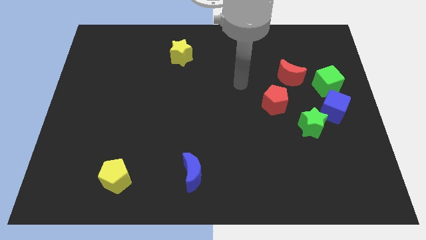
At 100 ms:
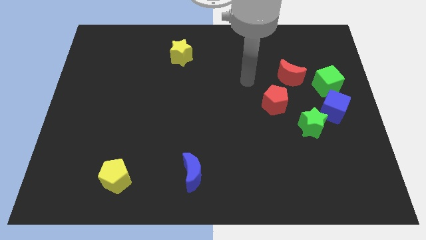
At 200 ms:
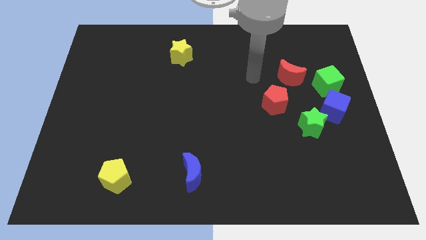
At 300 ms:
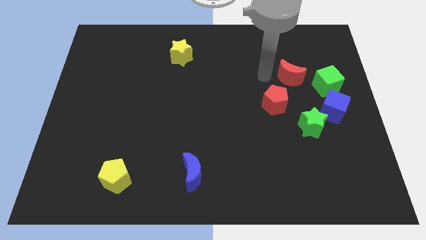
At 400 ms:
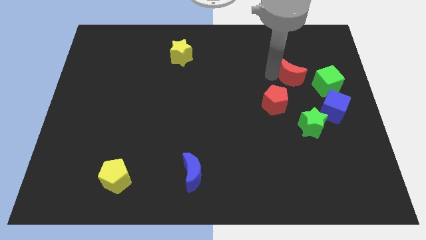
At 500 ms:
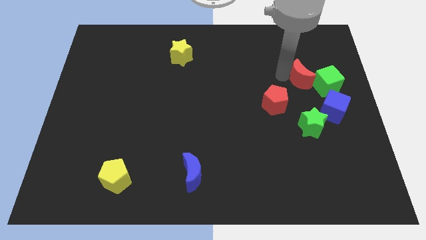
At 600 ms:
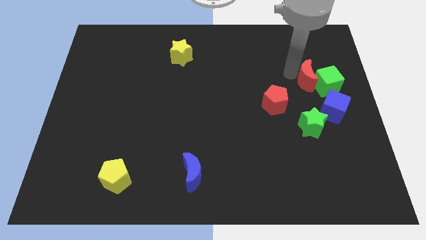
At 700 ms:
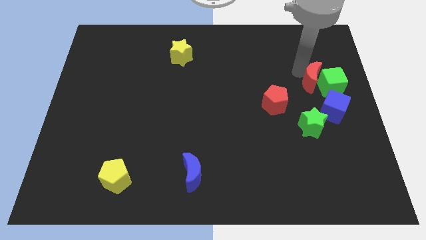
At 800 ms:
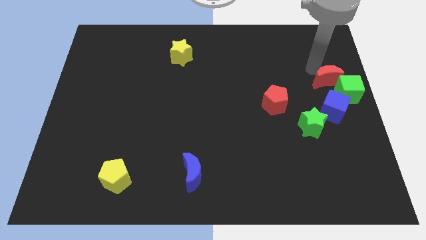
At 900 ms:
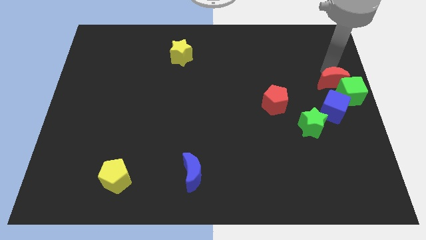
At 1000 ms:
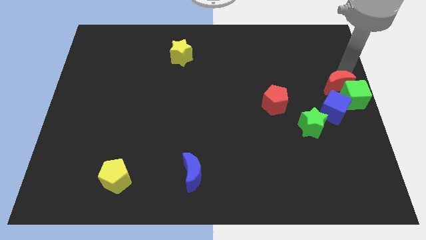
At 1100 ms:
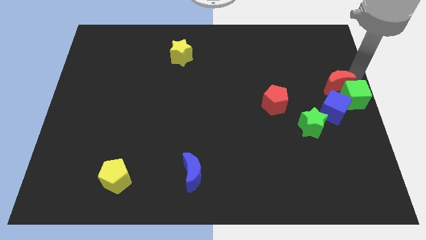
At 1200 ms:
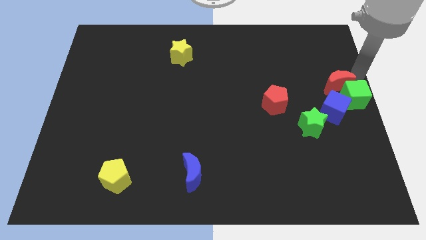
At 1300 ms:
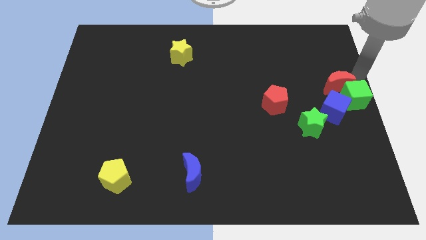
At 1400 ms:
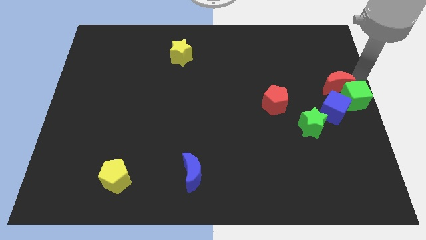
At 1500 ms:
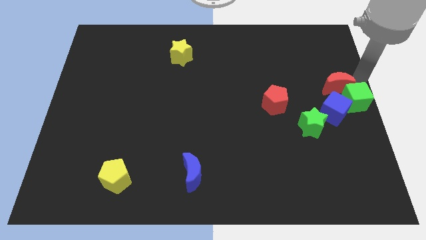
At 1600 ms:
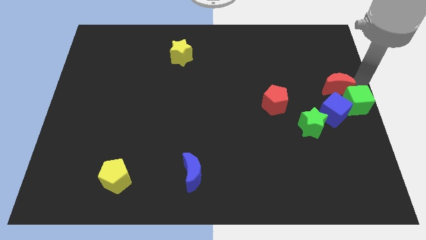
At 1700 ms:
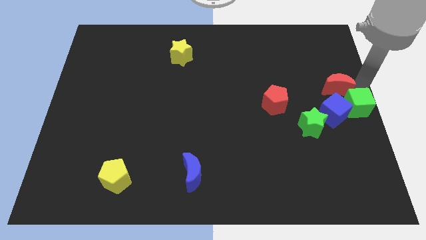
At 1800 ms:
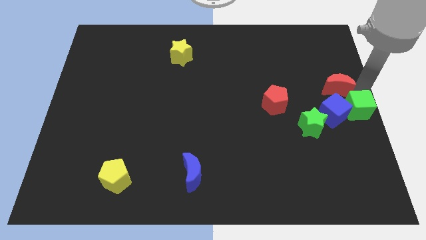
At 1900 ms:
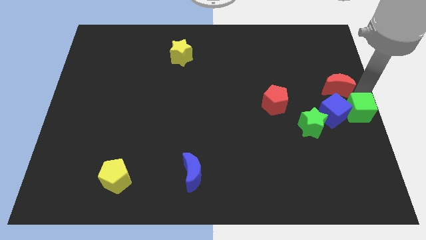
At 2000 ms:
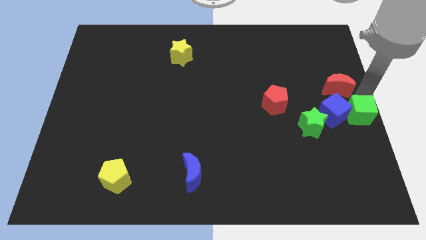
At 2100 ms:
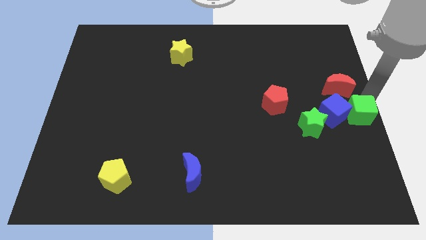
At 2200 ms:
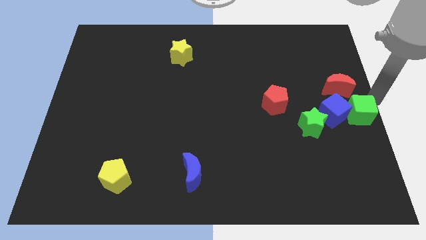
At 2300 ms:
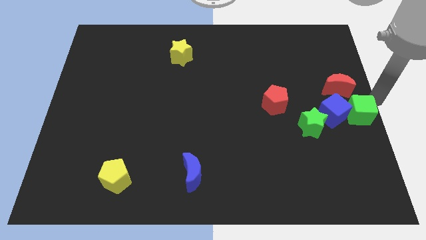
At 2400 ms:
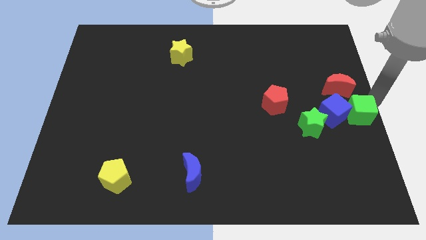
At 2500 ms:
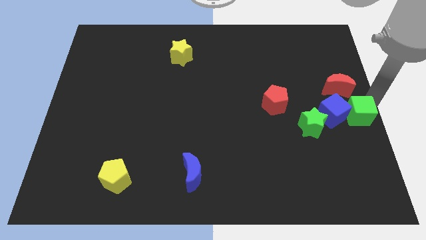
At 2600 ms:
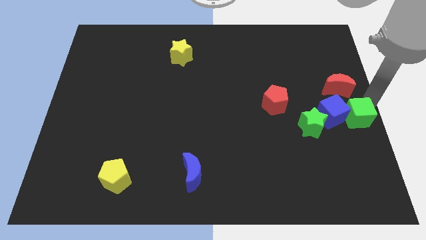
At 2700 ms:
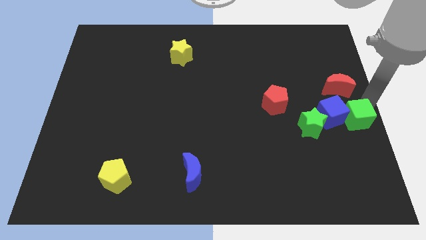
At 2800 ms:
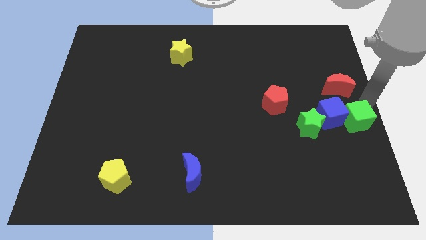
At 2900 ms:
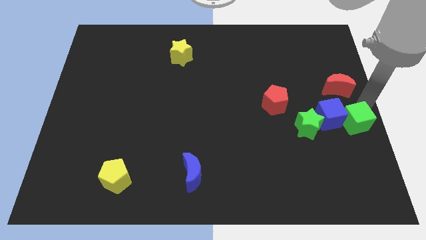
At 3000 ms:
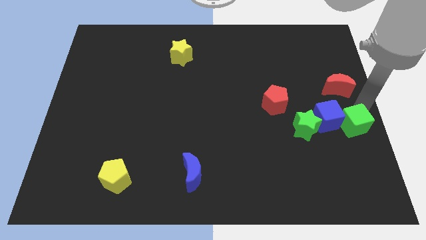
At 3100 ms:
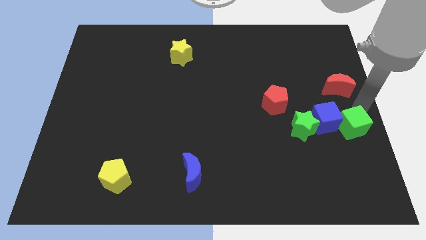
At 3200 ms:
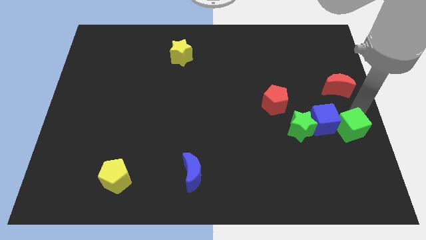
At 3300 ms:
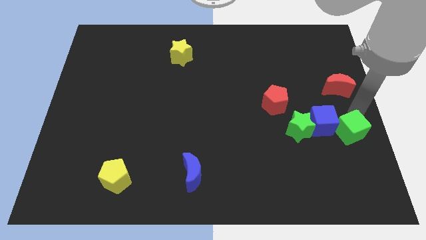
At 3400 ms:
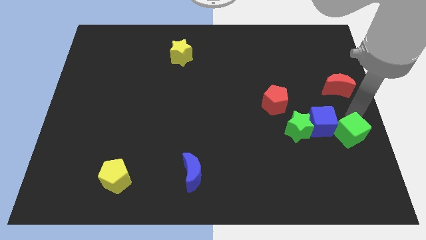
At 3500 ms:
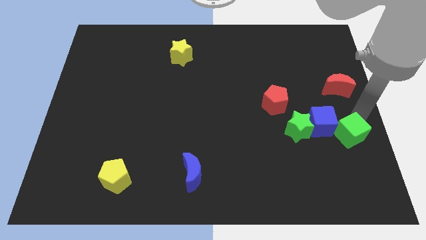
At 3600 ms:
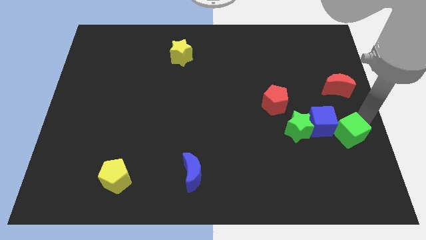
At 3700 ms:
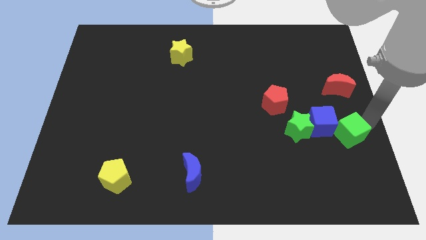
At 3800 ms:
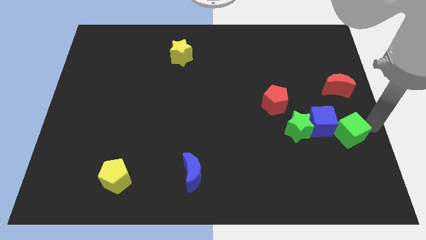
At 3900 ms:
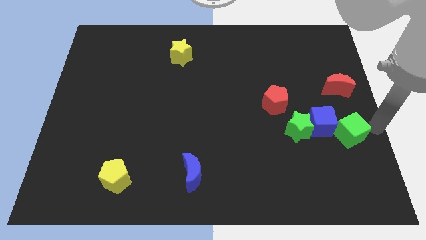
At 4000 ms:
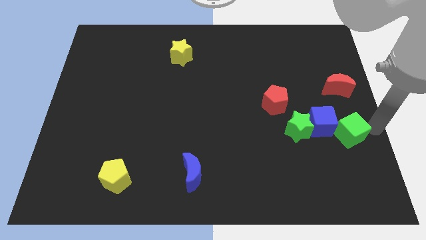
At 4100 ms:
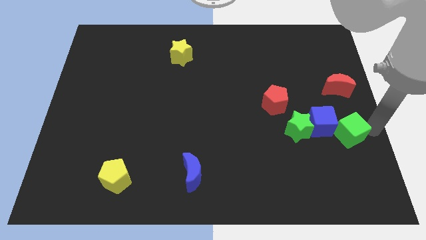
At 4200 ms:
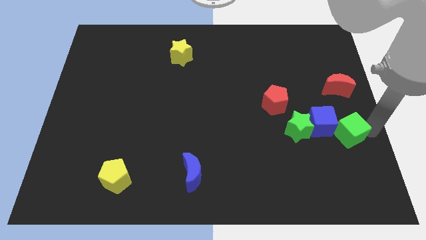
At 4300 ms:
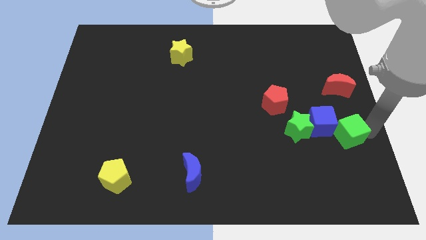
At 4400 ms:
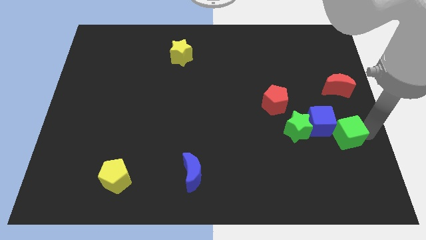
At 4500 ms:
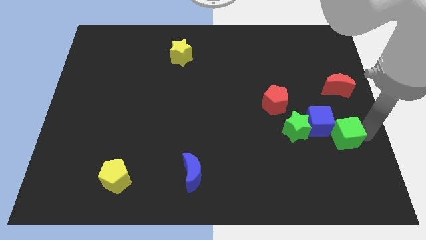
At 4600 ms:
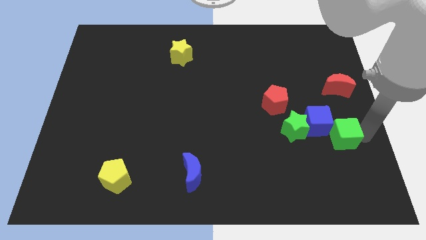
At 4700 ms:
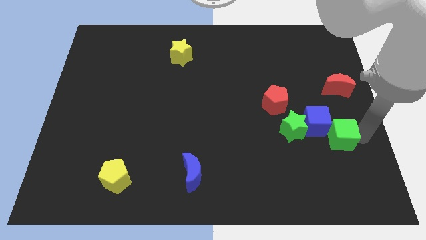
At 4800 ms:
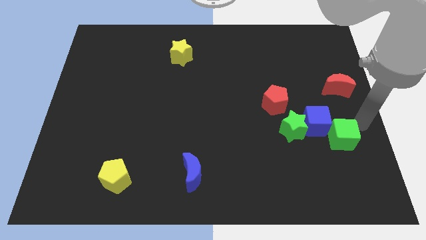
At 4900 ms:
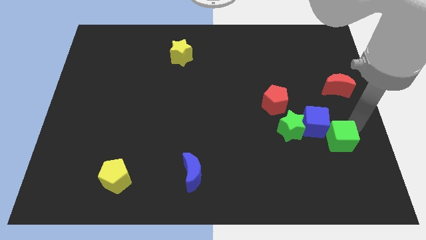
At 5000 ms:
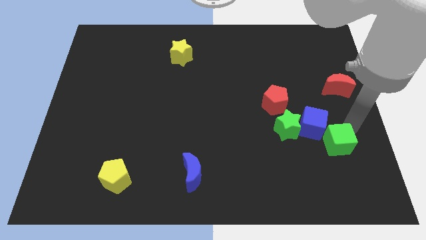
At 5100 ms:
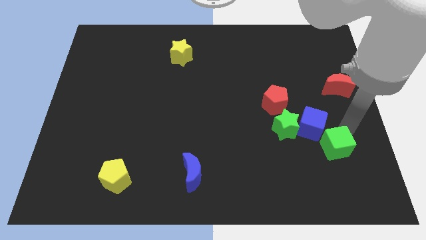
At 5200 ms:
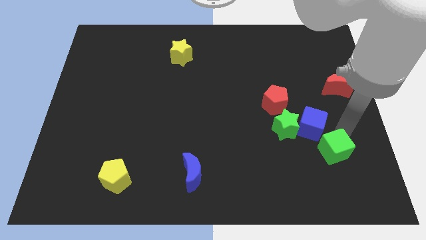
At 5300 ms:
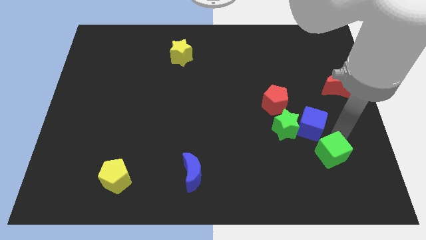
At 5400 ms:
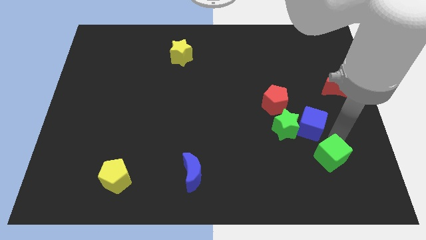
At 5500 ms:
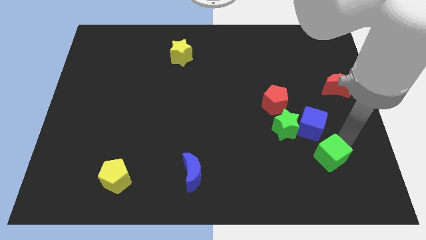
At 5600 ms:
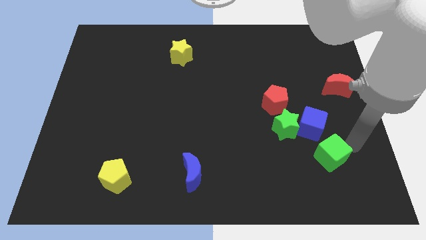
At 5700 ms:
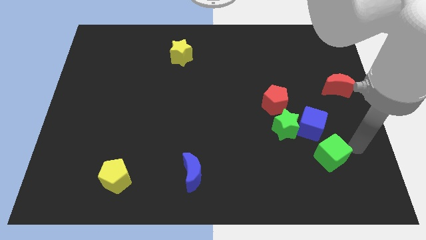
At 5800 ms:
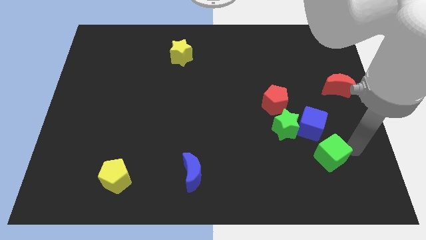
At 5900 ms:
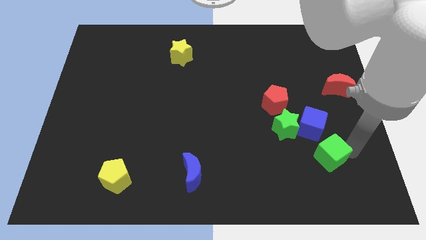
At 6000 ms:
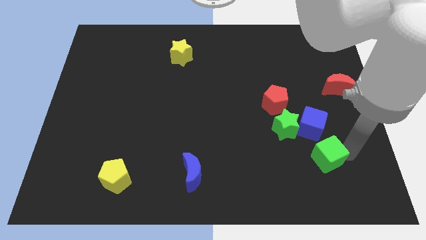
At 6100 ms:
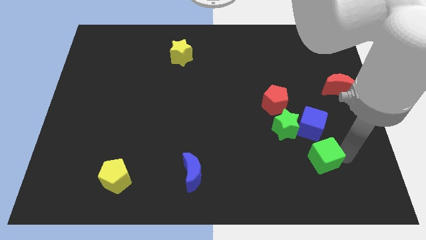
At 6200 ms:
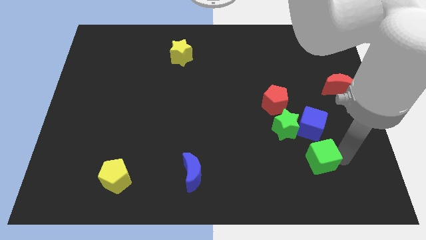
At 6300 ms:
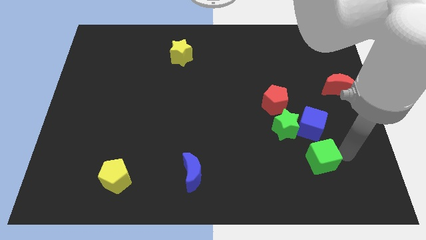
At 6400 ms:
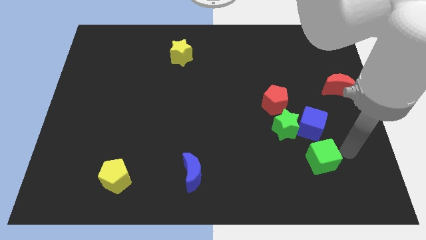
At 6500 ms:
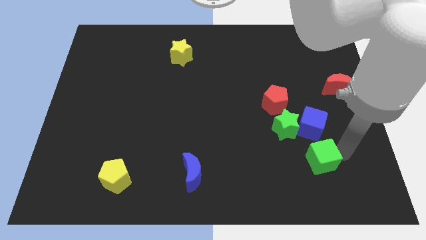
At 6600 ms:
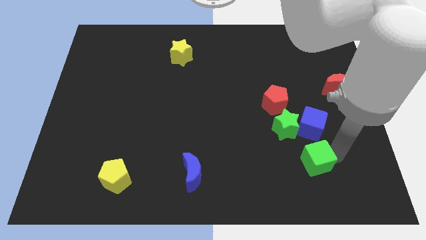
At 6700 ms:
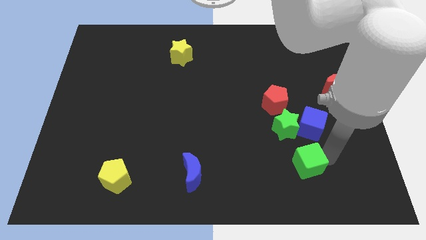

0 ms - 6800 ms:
push the green cube to the bottom of the green star

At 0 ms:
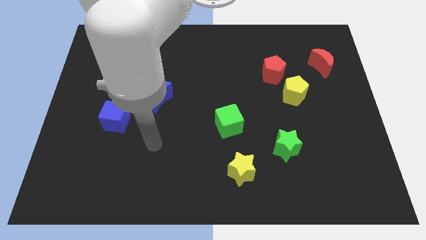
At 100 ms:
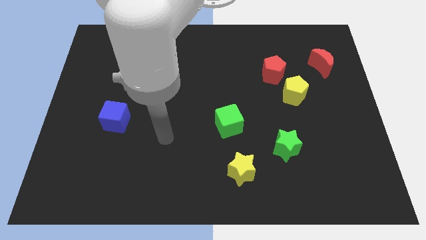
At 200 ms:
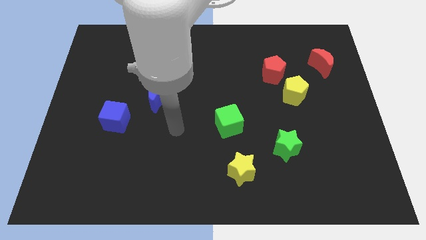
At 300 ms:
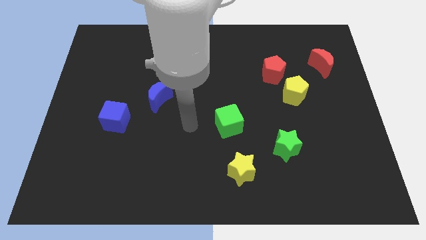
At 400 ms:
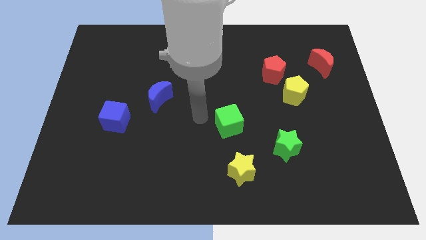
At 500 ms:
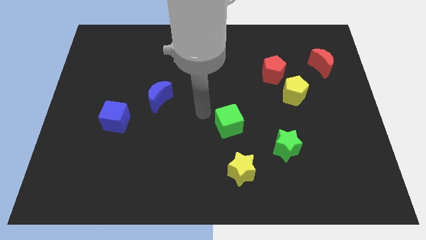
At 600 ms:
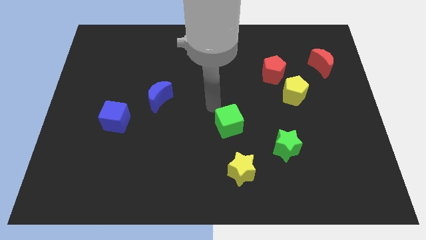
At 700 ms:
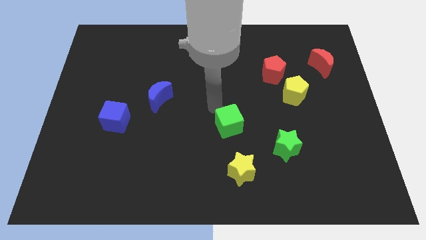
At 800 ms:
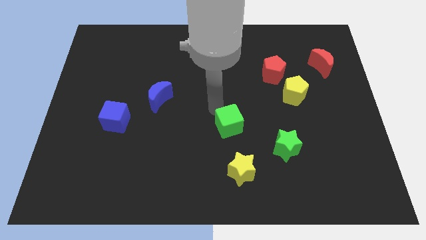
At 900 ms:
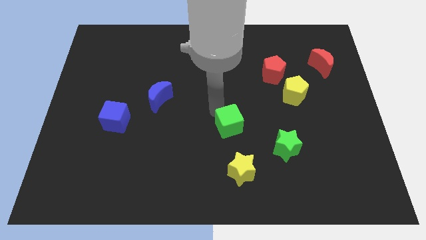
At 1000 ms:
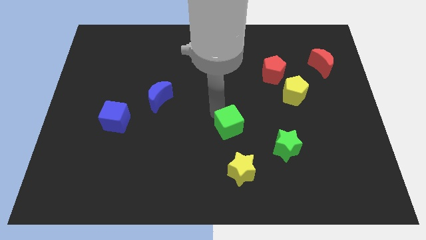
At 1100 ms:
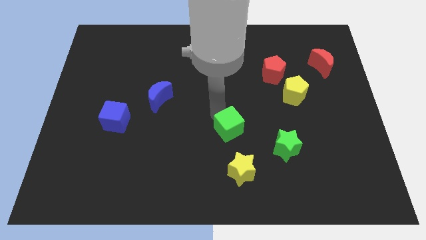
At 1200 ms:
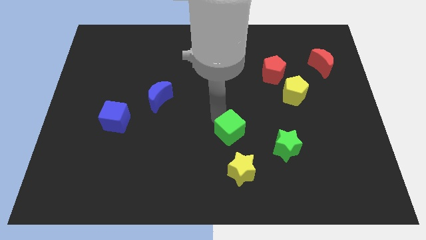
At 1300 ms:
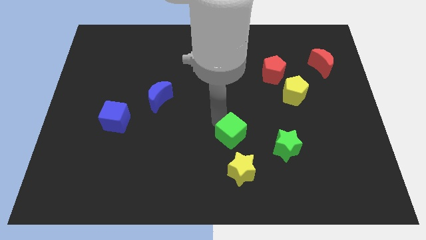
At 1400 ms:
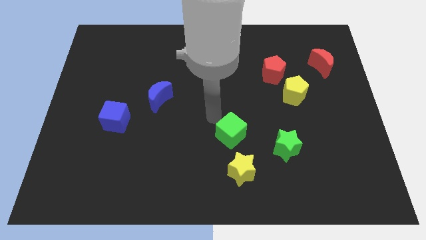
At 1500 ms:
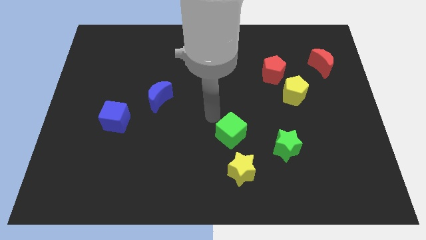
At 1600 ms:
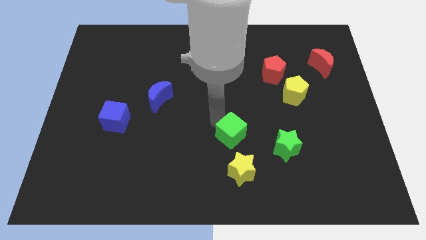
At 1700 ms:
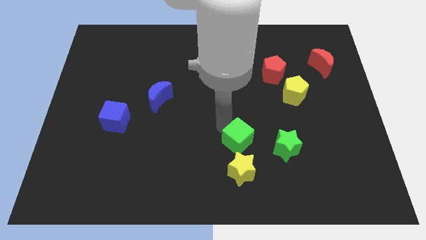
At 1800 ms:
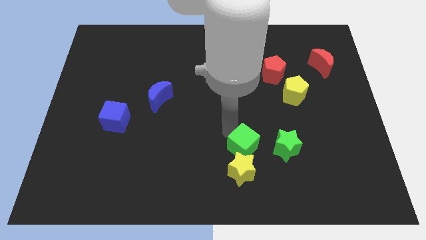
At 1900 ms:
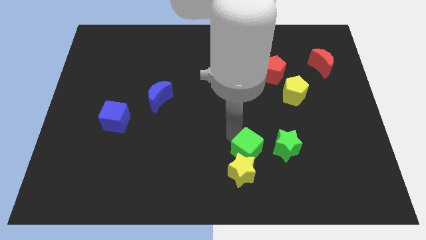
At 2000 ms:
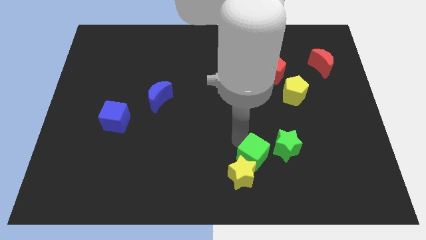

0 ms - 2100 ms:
move the green cube to the bottom left of the green star
